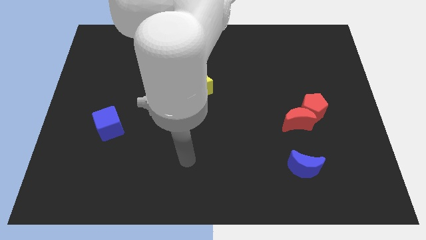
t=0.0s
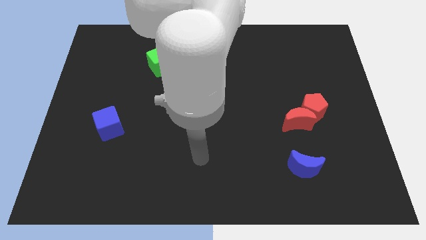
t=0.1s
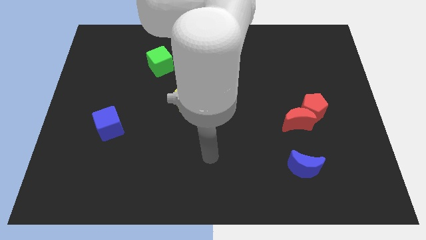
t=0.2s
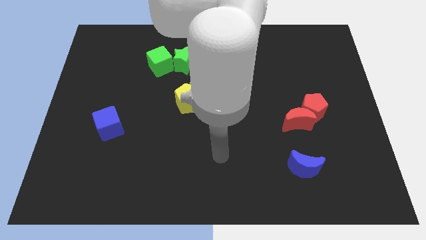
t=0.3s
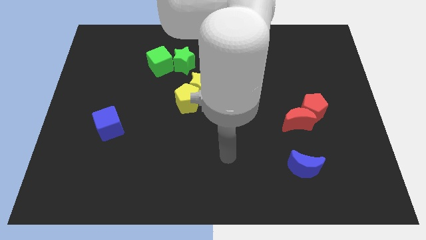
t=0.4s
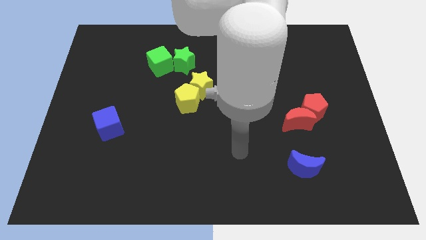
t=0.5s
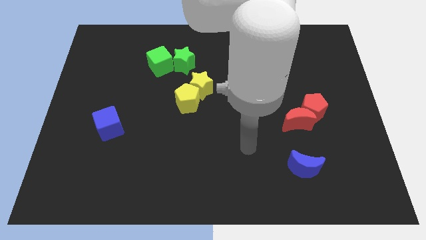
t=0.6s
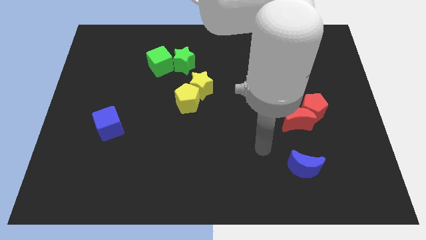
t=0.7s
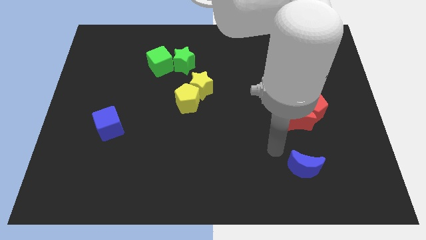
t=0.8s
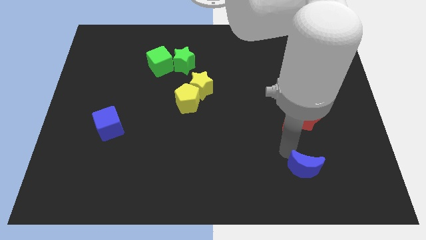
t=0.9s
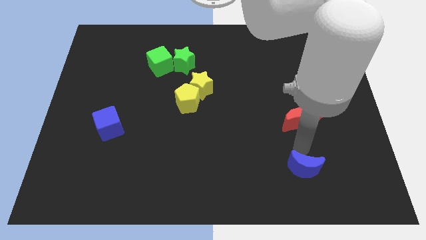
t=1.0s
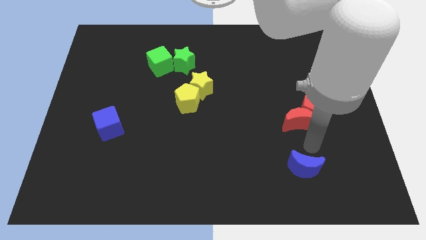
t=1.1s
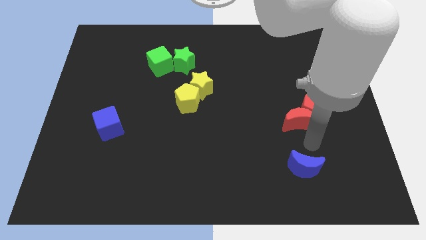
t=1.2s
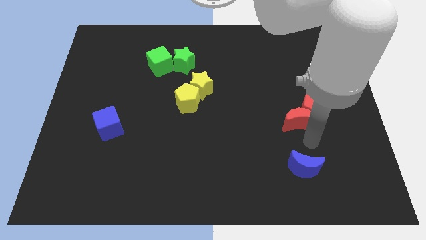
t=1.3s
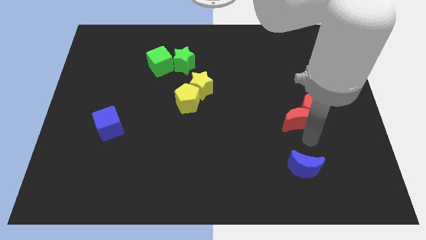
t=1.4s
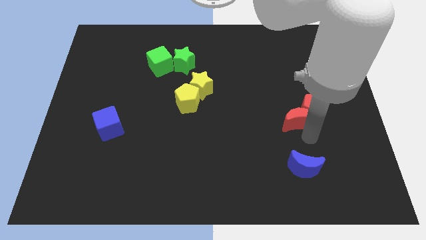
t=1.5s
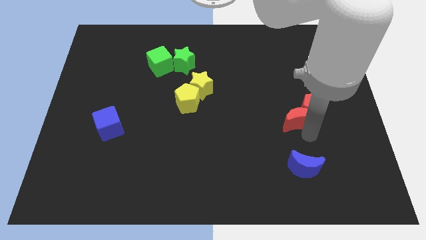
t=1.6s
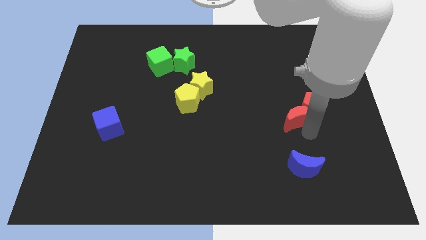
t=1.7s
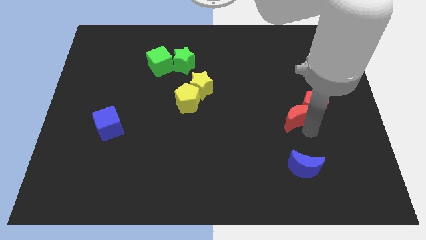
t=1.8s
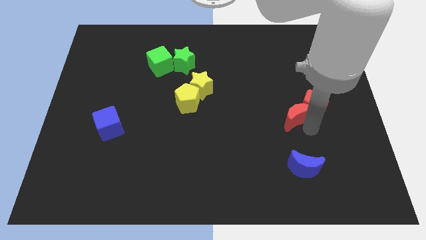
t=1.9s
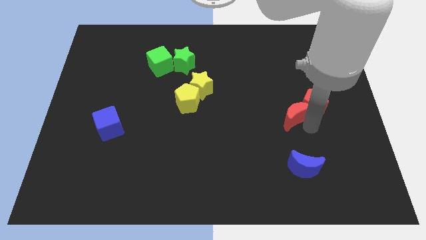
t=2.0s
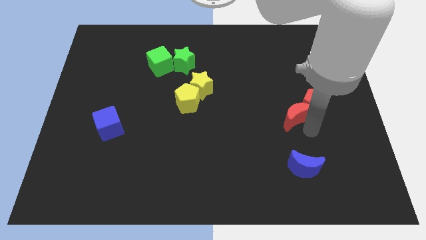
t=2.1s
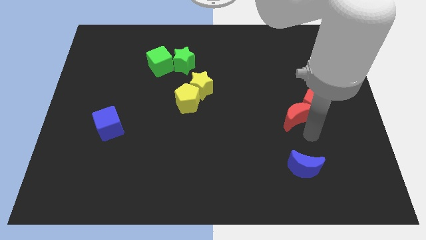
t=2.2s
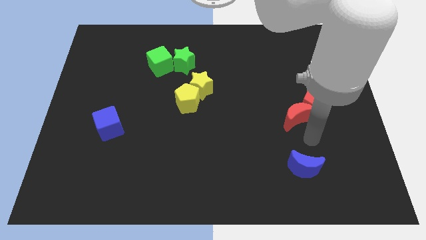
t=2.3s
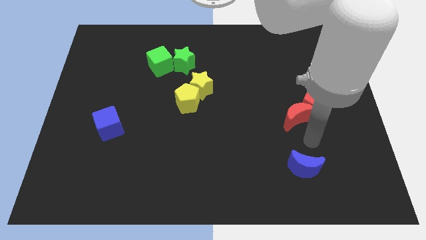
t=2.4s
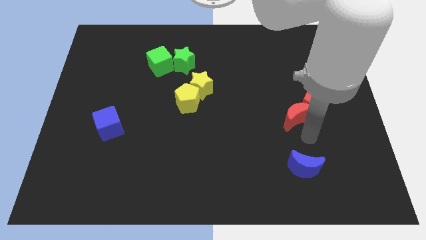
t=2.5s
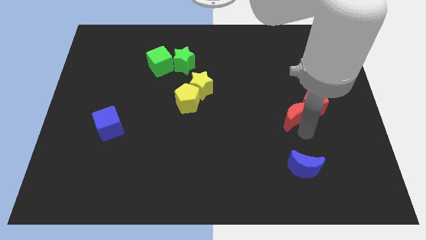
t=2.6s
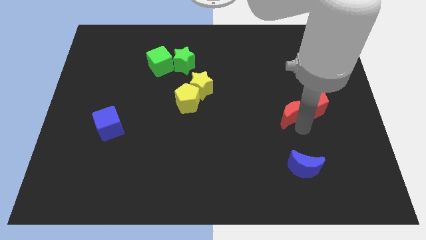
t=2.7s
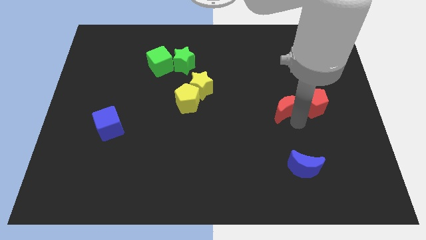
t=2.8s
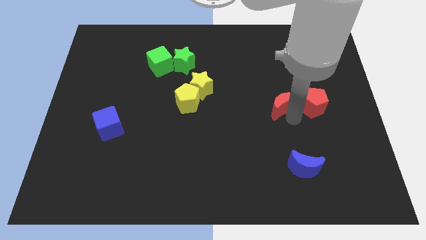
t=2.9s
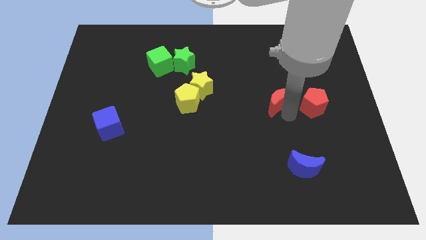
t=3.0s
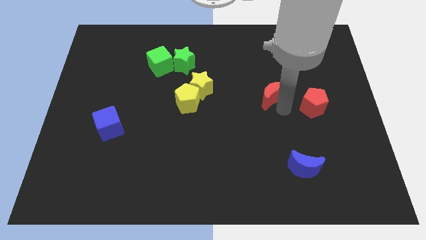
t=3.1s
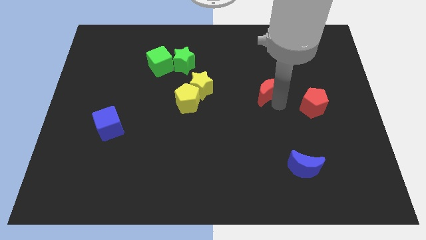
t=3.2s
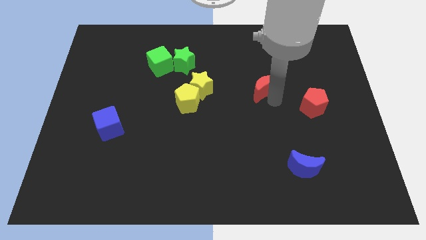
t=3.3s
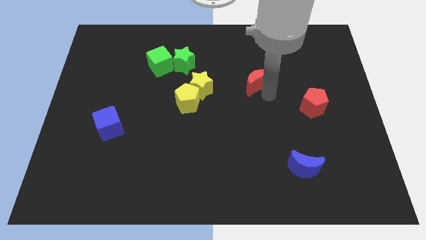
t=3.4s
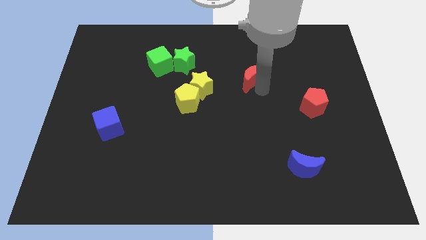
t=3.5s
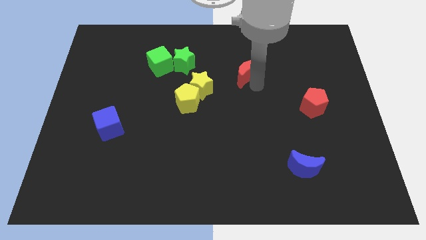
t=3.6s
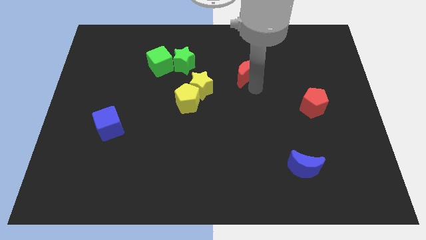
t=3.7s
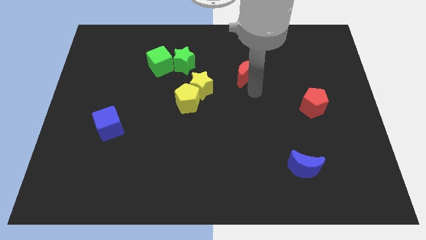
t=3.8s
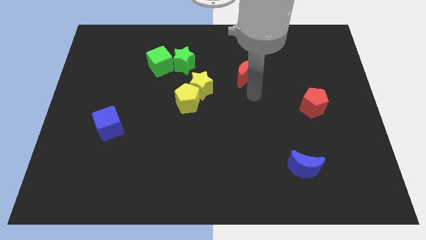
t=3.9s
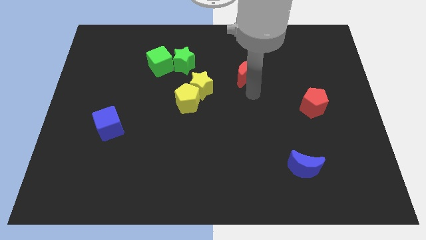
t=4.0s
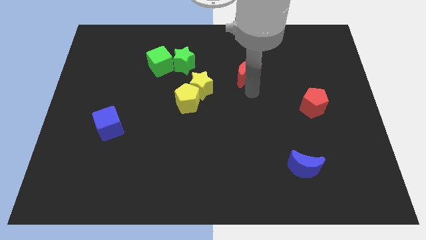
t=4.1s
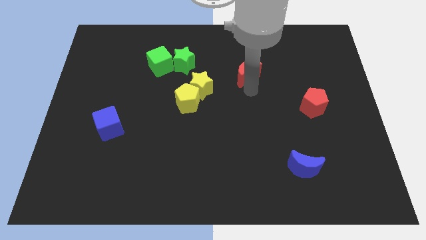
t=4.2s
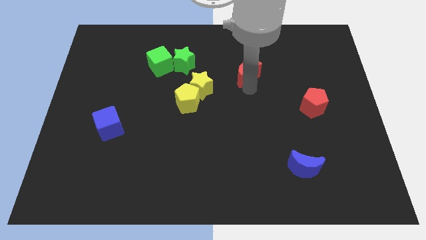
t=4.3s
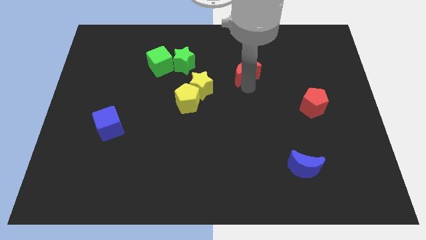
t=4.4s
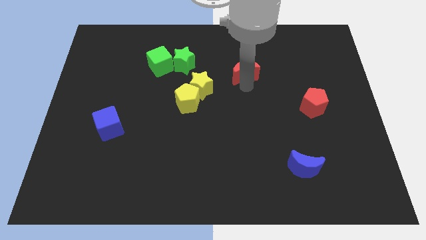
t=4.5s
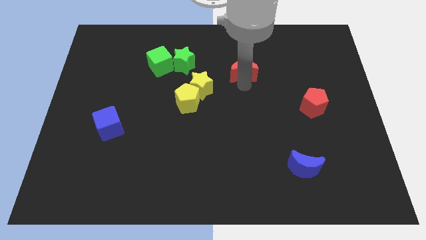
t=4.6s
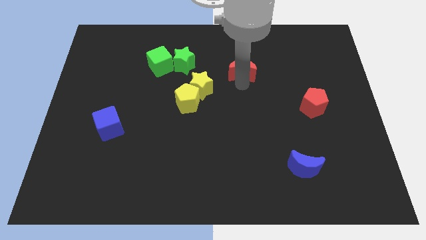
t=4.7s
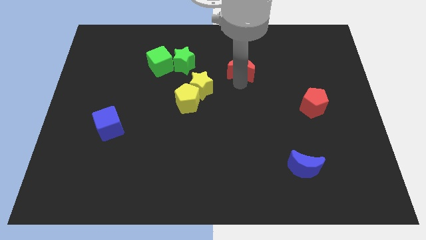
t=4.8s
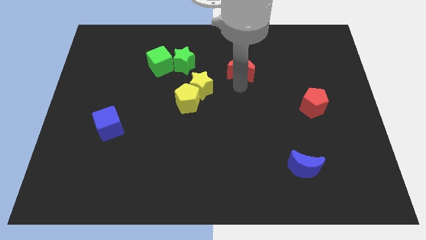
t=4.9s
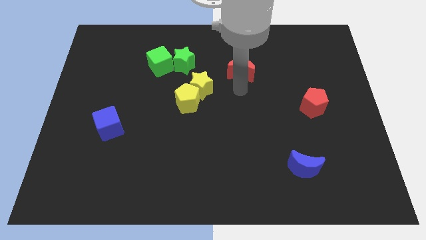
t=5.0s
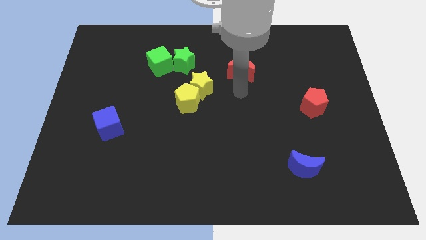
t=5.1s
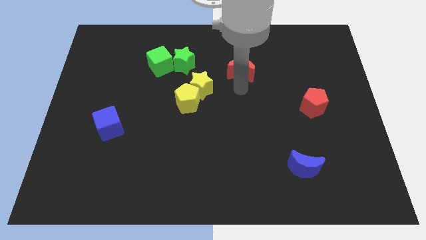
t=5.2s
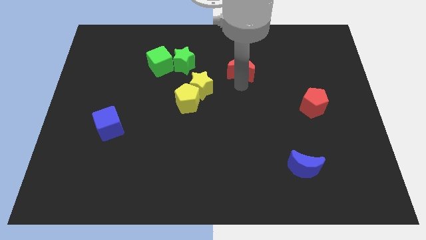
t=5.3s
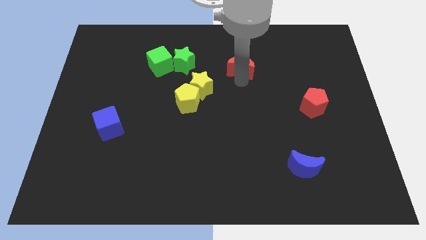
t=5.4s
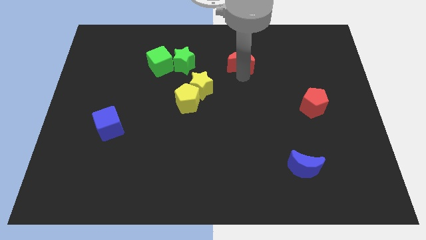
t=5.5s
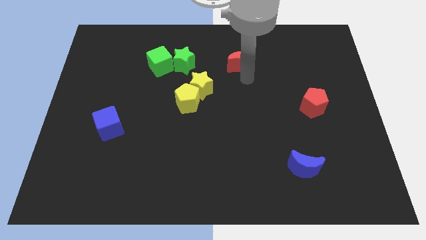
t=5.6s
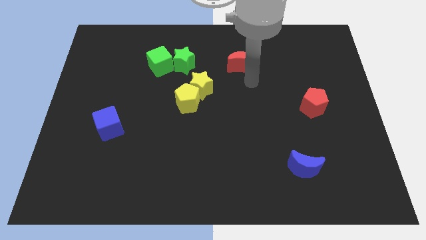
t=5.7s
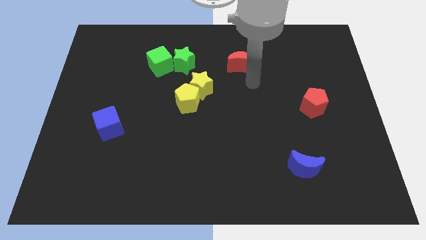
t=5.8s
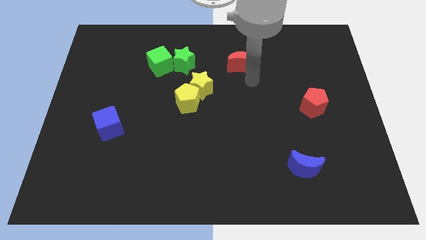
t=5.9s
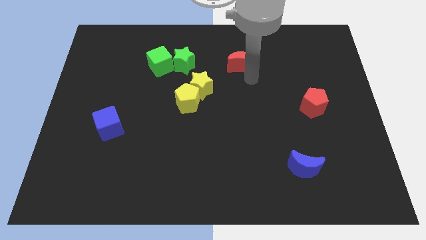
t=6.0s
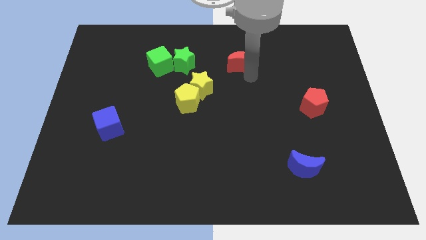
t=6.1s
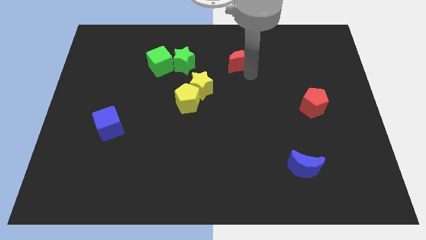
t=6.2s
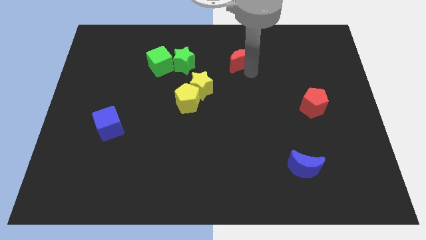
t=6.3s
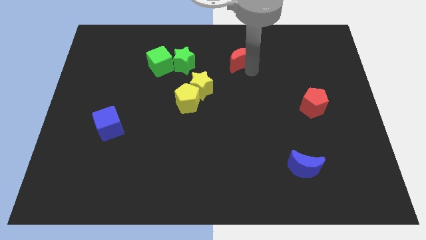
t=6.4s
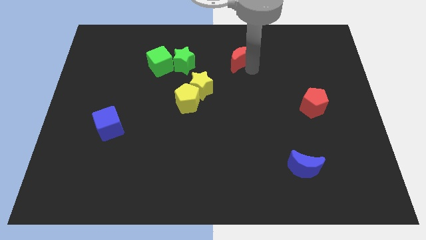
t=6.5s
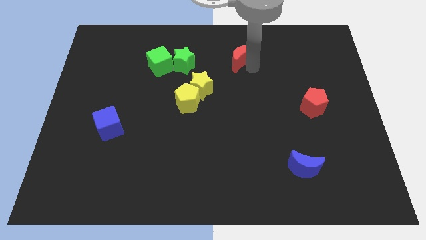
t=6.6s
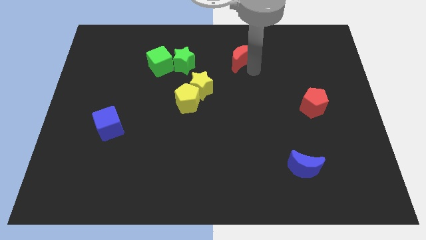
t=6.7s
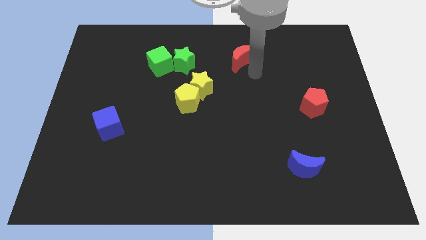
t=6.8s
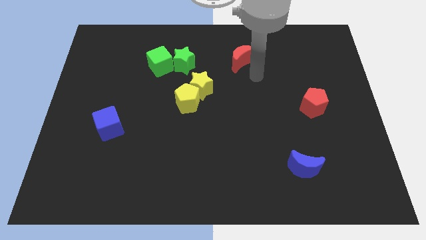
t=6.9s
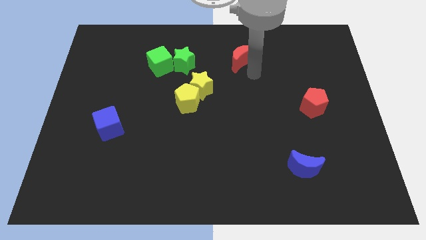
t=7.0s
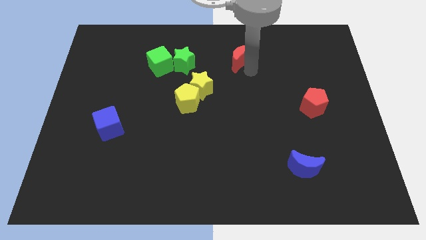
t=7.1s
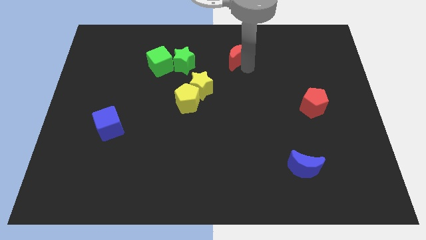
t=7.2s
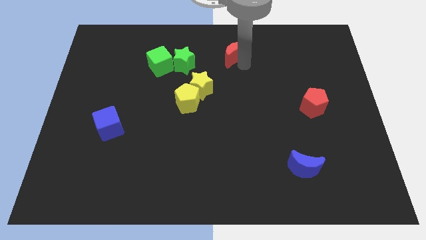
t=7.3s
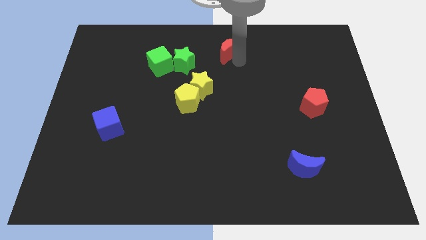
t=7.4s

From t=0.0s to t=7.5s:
put the red moon to the top side
